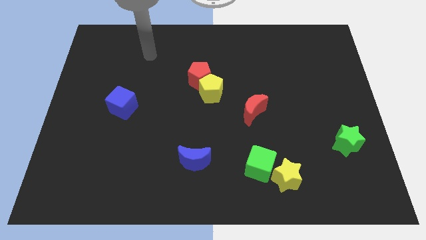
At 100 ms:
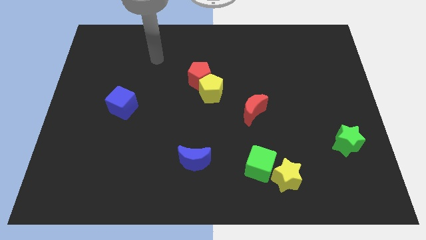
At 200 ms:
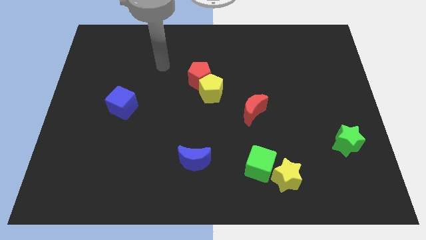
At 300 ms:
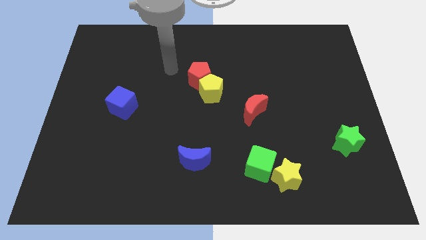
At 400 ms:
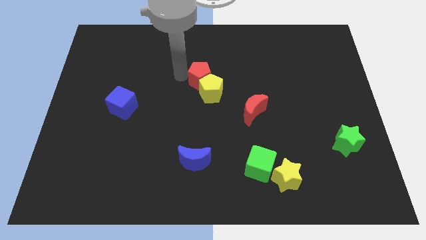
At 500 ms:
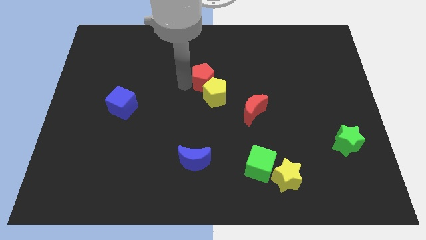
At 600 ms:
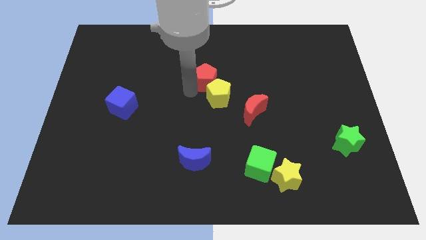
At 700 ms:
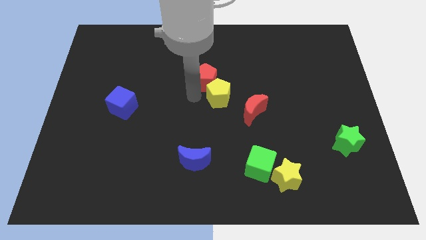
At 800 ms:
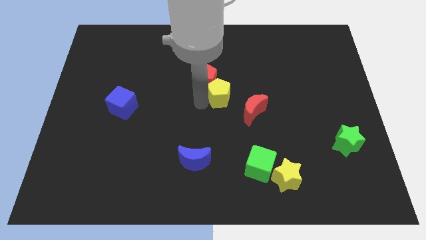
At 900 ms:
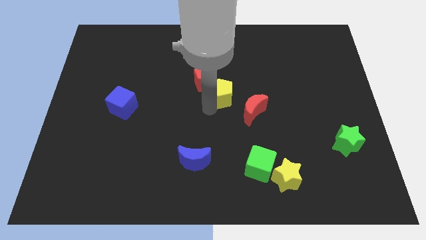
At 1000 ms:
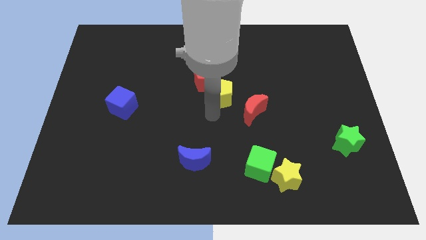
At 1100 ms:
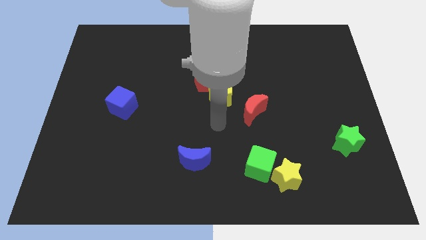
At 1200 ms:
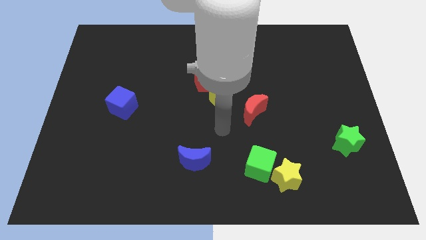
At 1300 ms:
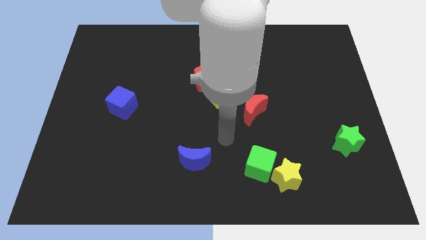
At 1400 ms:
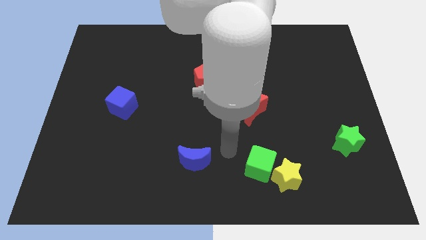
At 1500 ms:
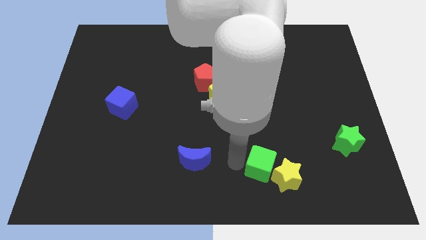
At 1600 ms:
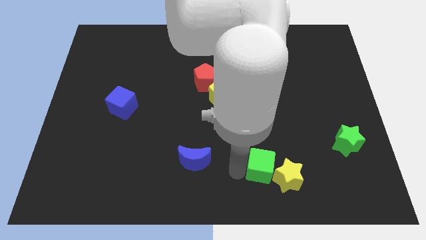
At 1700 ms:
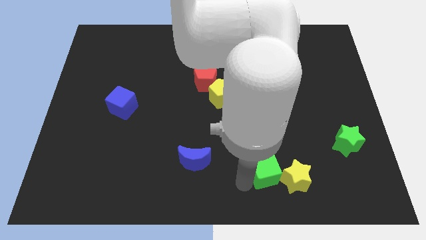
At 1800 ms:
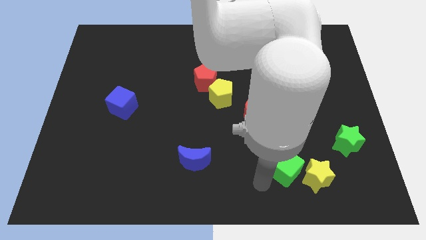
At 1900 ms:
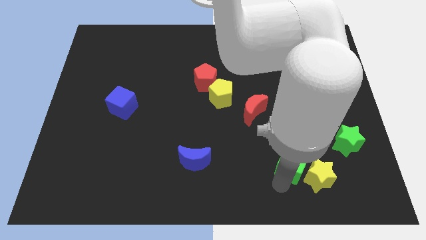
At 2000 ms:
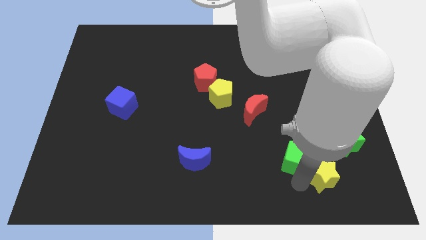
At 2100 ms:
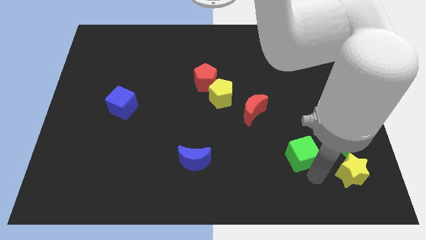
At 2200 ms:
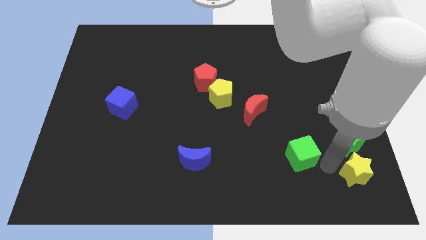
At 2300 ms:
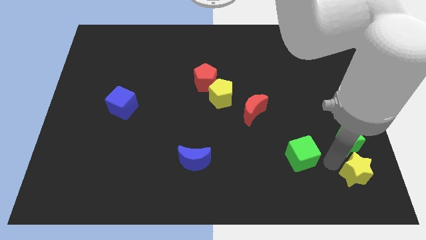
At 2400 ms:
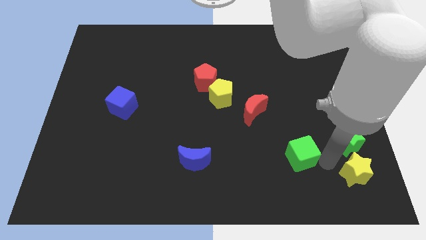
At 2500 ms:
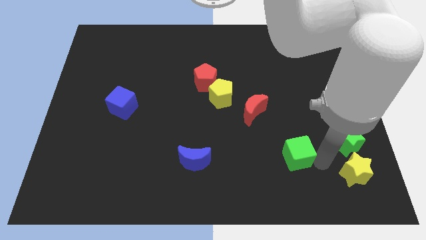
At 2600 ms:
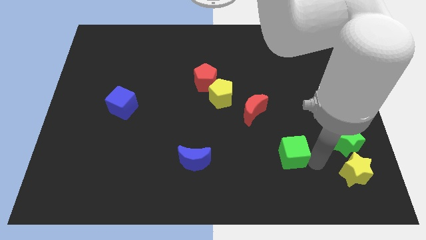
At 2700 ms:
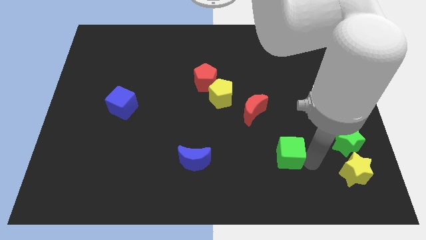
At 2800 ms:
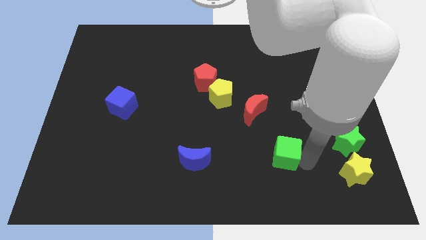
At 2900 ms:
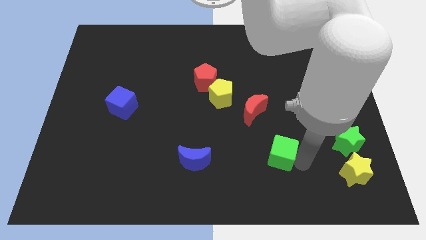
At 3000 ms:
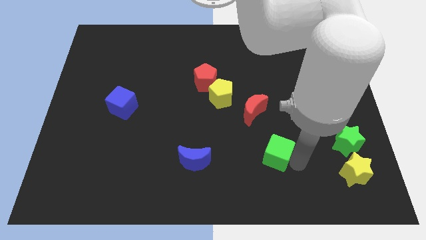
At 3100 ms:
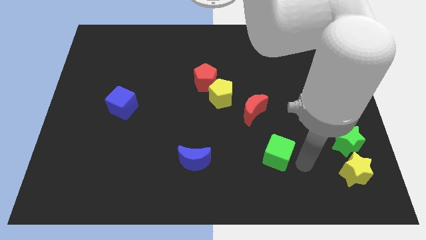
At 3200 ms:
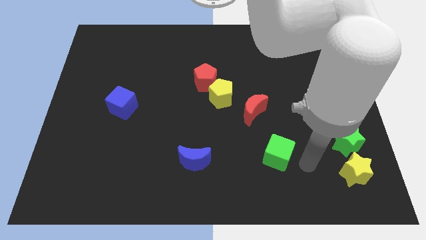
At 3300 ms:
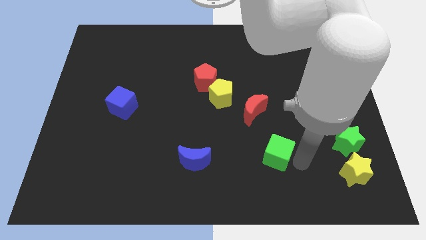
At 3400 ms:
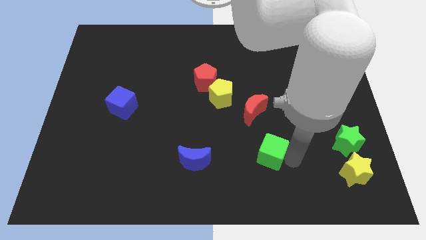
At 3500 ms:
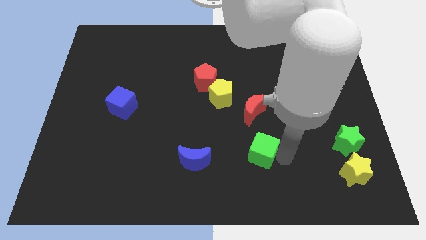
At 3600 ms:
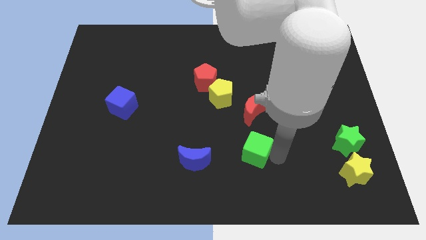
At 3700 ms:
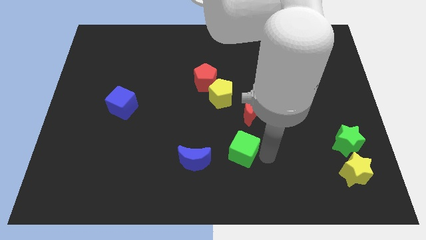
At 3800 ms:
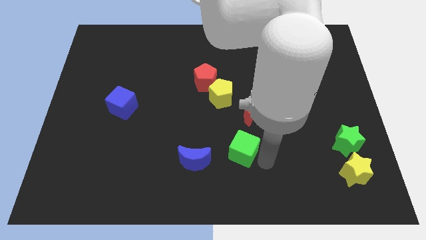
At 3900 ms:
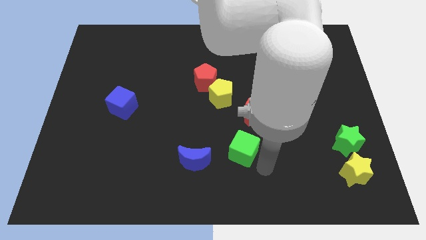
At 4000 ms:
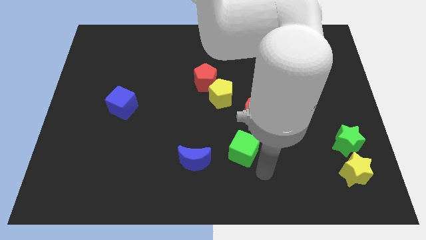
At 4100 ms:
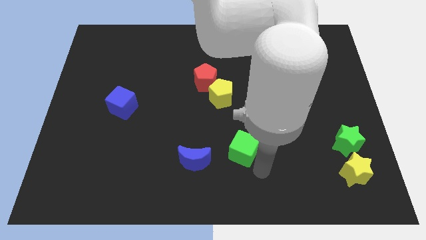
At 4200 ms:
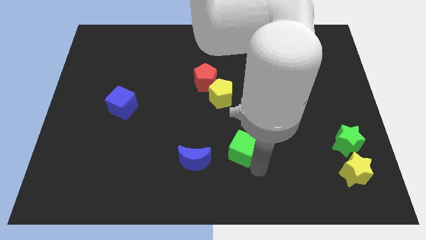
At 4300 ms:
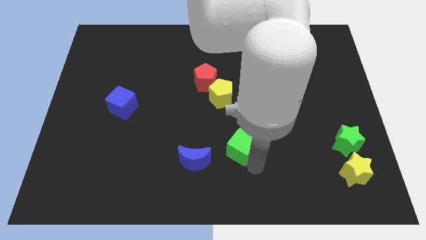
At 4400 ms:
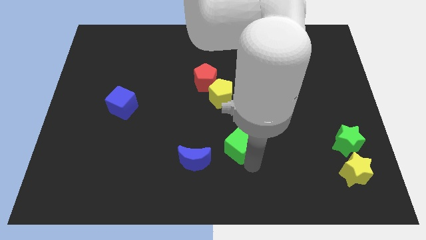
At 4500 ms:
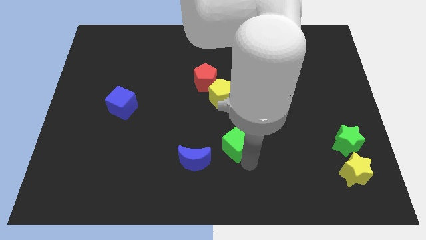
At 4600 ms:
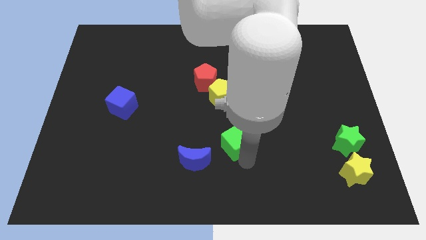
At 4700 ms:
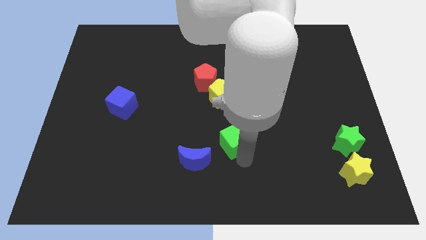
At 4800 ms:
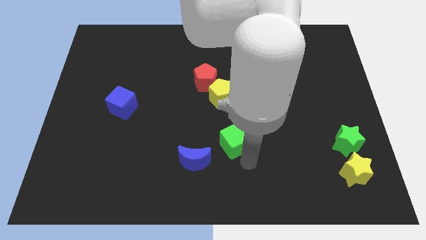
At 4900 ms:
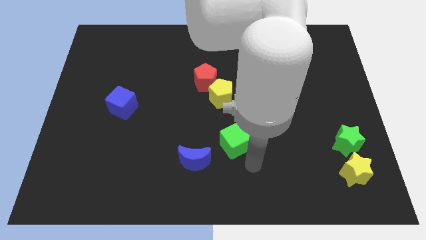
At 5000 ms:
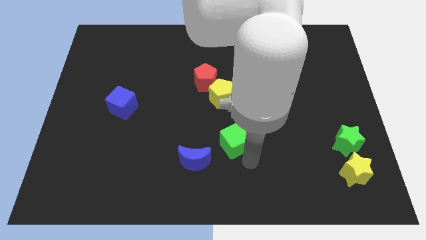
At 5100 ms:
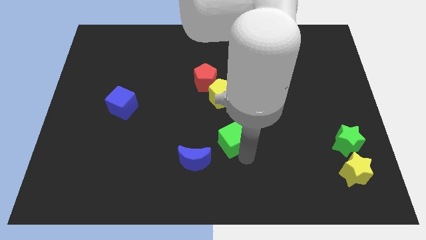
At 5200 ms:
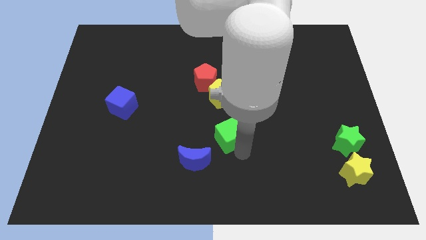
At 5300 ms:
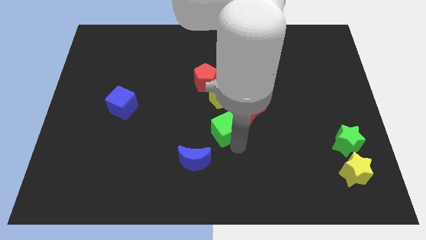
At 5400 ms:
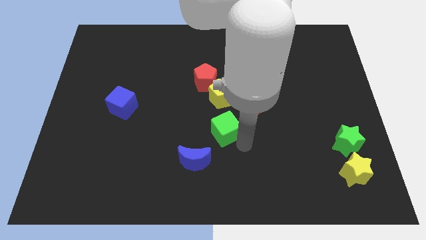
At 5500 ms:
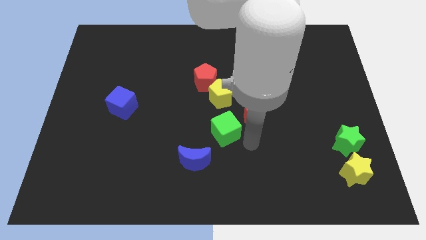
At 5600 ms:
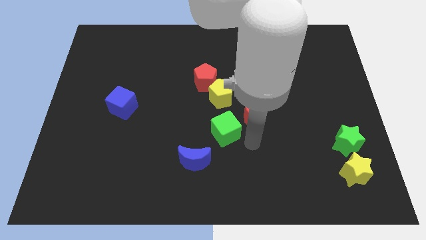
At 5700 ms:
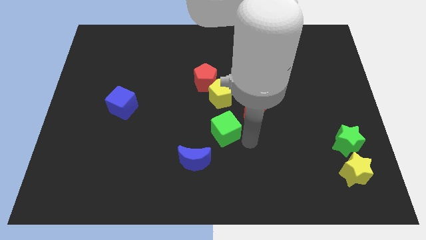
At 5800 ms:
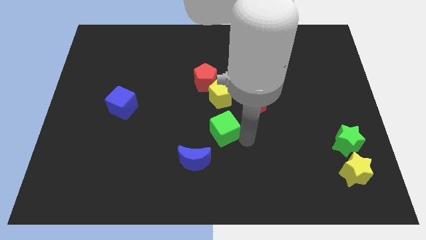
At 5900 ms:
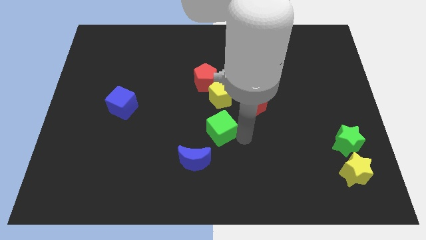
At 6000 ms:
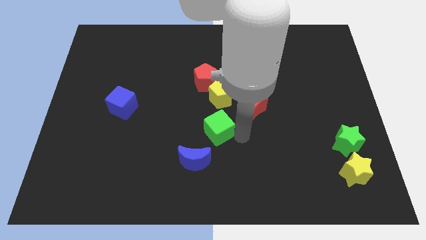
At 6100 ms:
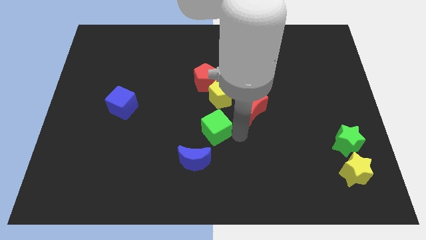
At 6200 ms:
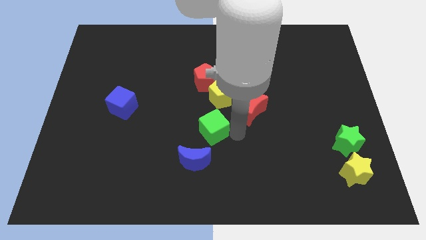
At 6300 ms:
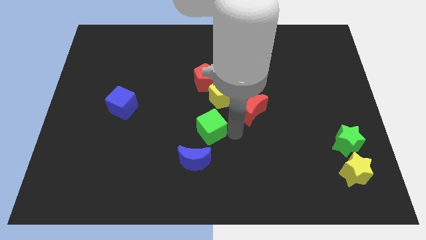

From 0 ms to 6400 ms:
move the green cube to the bottom left side of the yellow pentagon

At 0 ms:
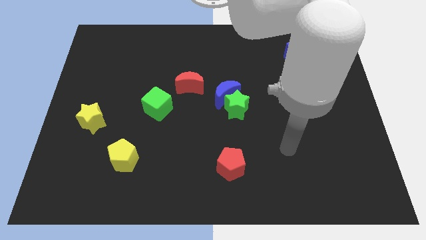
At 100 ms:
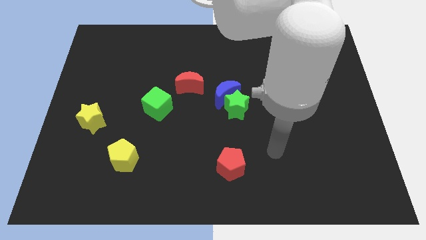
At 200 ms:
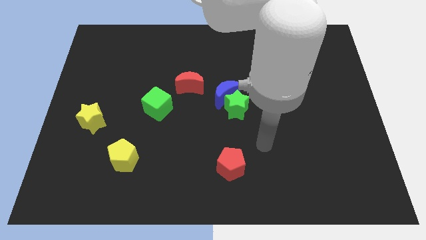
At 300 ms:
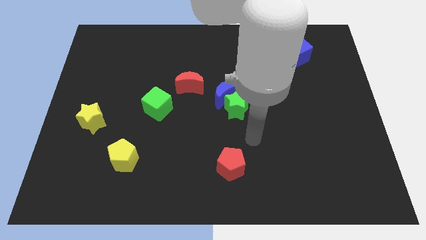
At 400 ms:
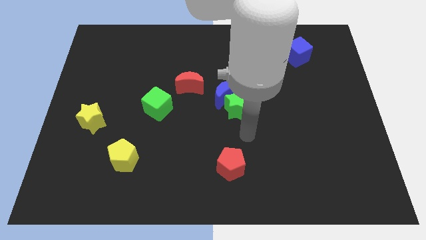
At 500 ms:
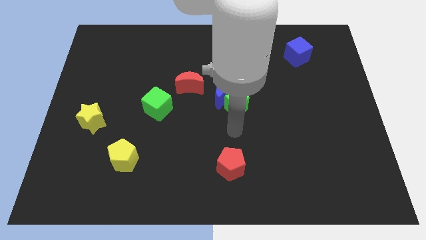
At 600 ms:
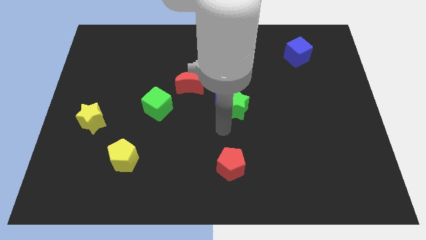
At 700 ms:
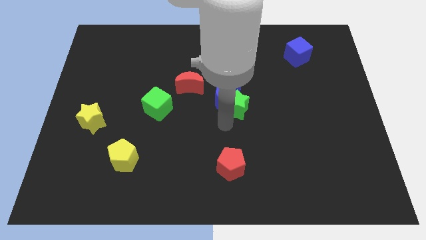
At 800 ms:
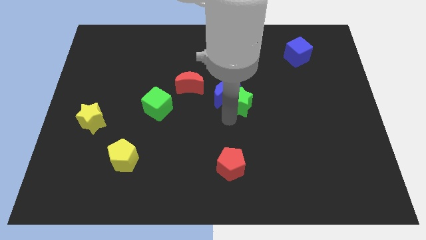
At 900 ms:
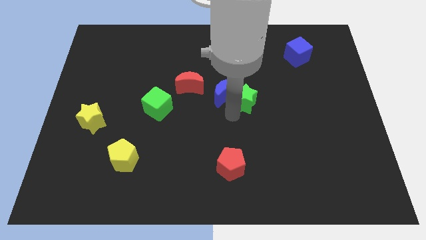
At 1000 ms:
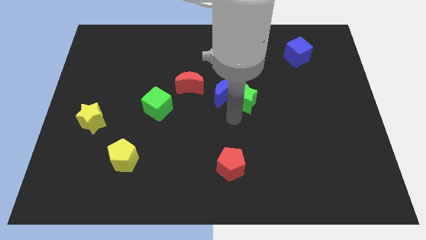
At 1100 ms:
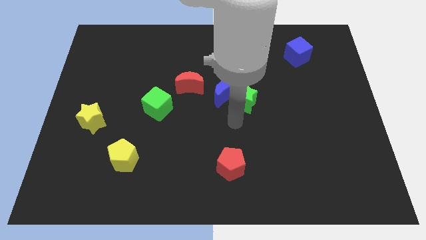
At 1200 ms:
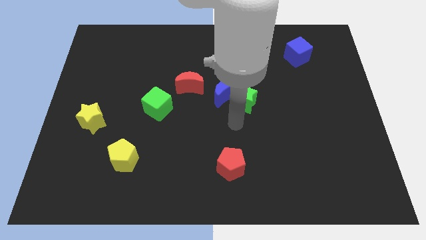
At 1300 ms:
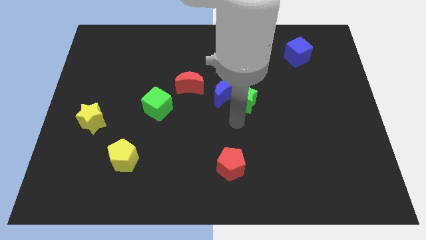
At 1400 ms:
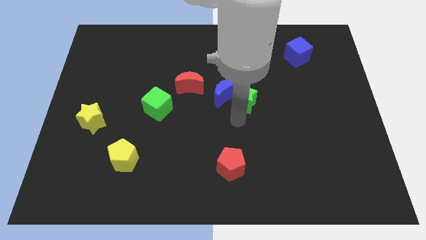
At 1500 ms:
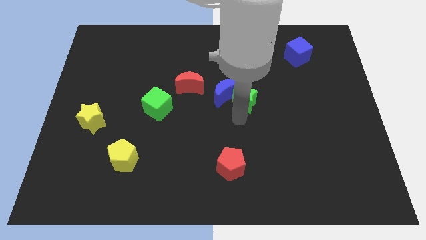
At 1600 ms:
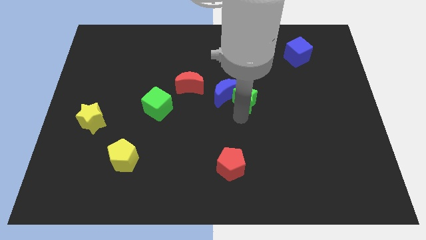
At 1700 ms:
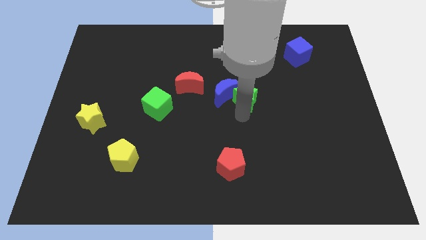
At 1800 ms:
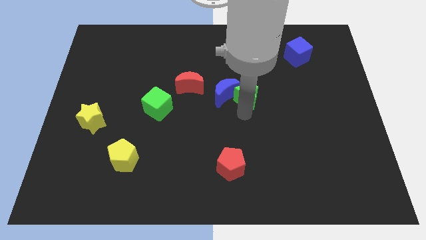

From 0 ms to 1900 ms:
move the green star to the top right of the blue moon
